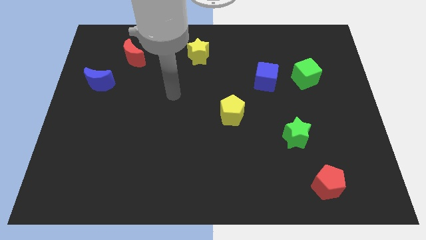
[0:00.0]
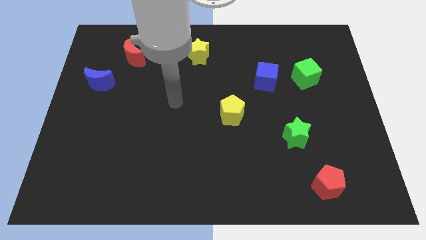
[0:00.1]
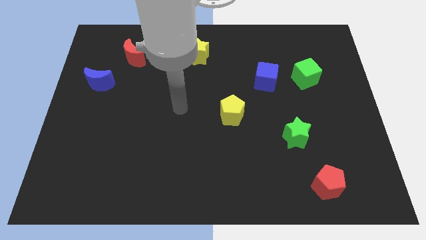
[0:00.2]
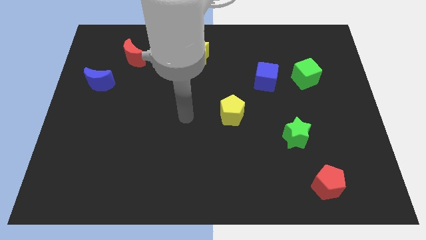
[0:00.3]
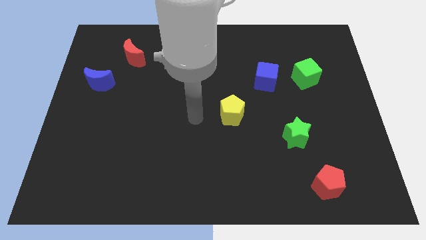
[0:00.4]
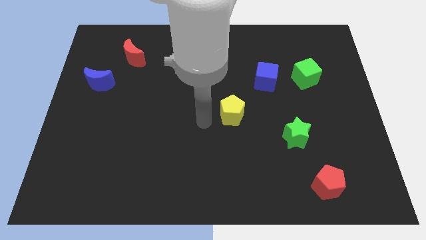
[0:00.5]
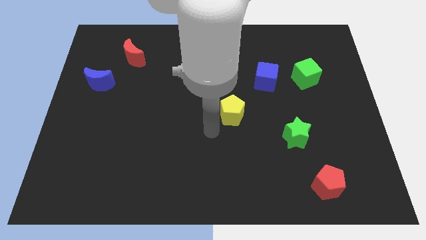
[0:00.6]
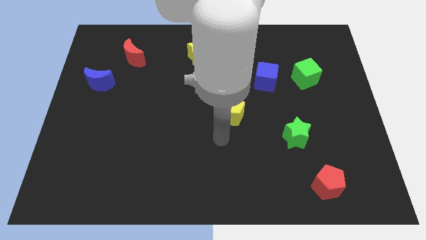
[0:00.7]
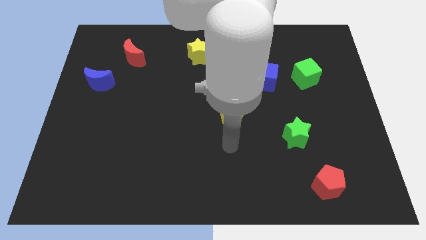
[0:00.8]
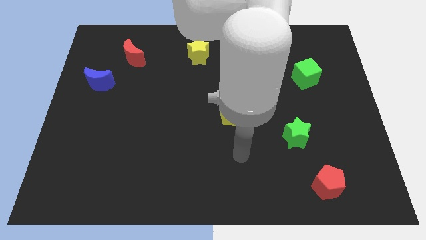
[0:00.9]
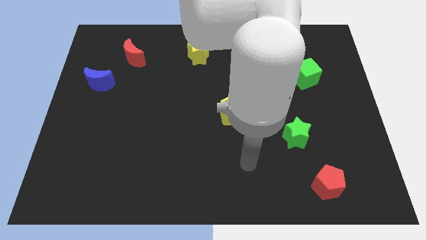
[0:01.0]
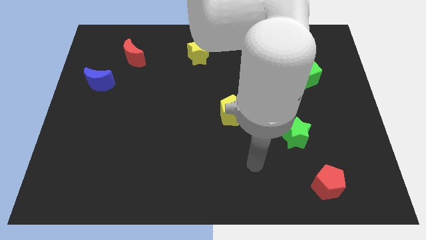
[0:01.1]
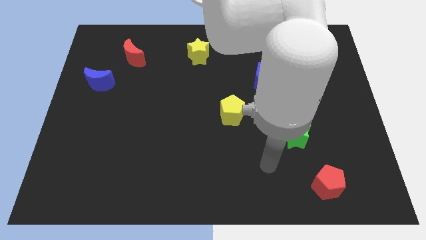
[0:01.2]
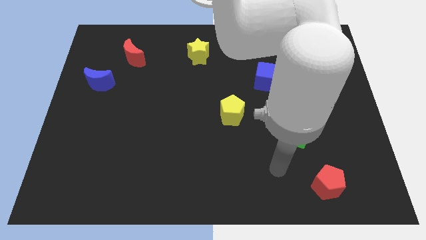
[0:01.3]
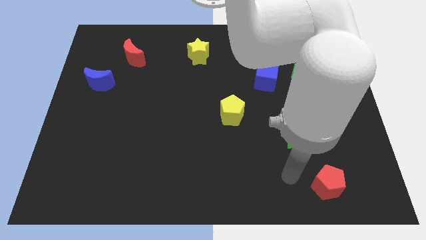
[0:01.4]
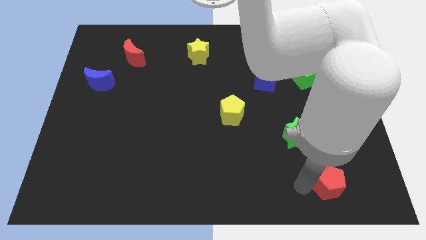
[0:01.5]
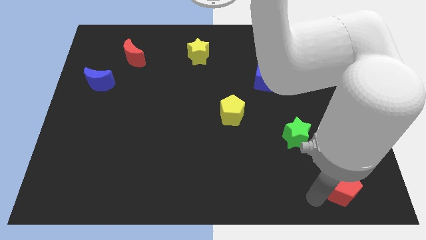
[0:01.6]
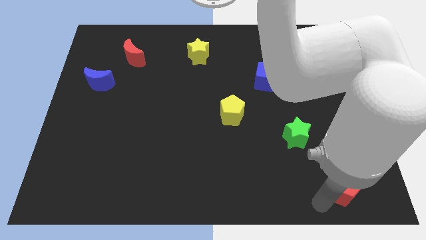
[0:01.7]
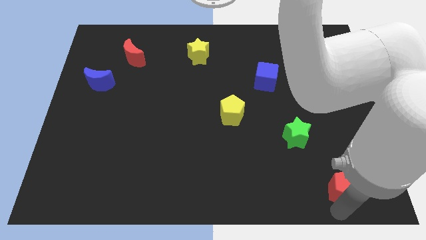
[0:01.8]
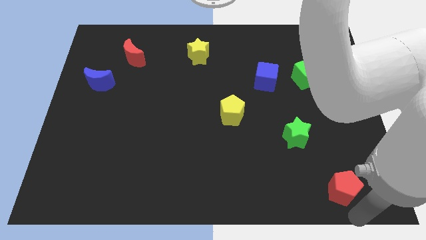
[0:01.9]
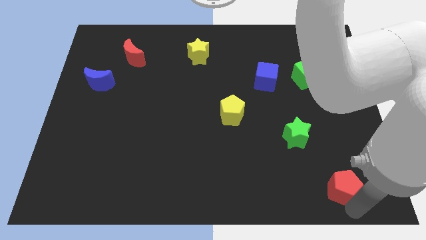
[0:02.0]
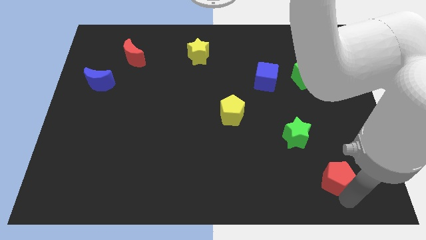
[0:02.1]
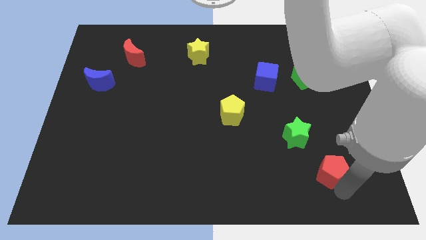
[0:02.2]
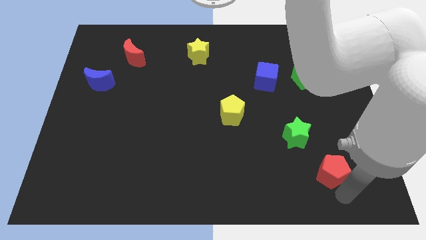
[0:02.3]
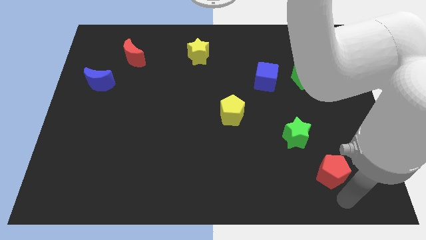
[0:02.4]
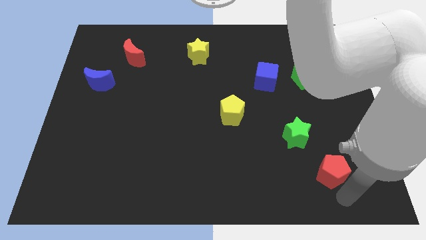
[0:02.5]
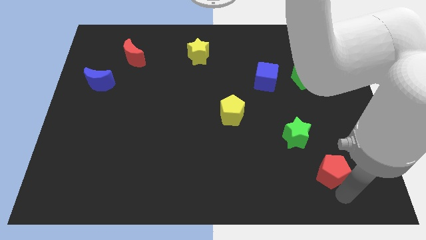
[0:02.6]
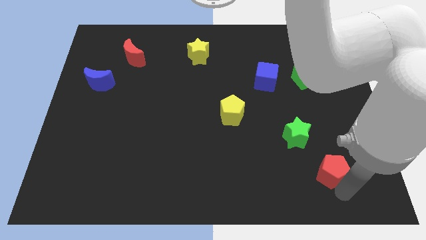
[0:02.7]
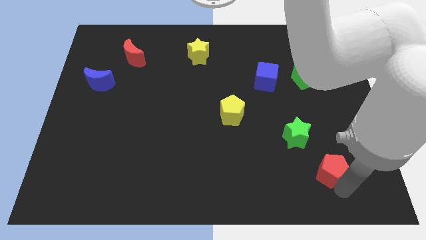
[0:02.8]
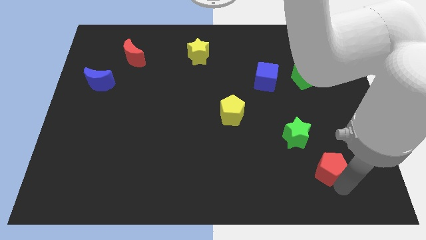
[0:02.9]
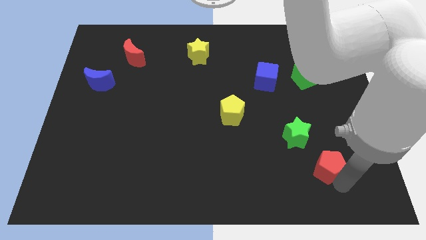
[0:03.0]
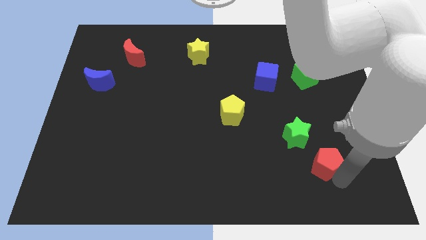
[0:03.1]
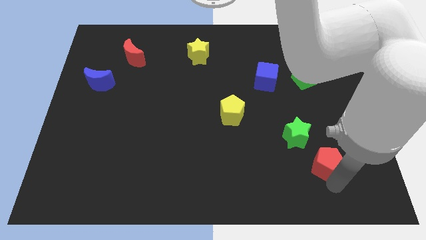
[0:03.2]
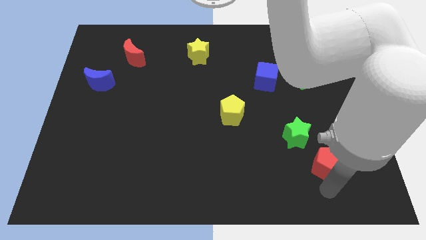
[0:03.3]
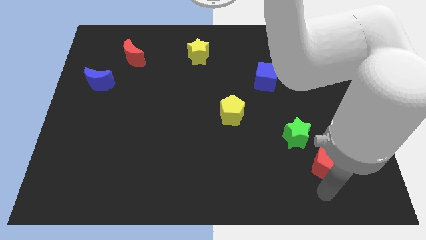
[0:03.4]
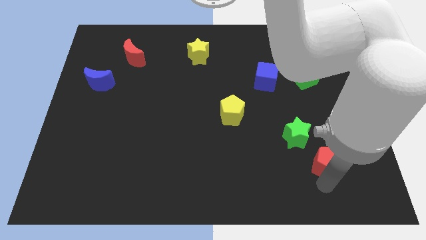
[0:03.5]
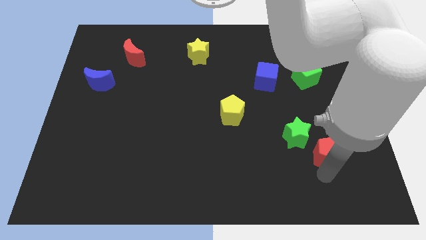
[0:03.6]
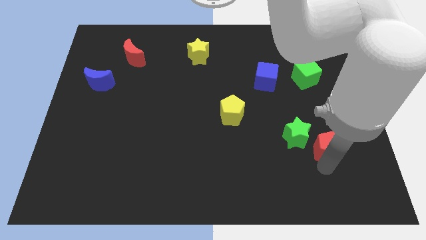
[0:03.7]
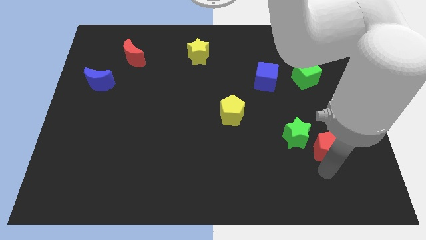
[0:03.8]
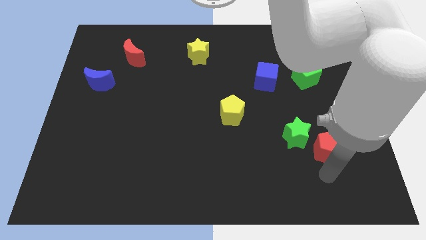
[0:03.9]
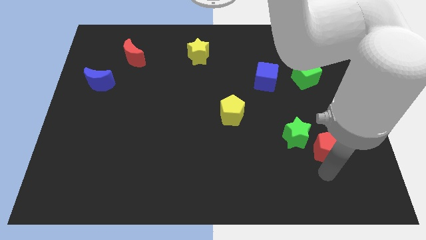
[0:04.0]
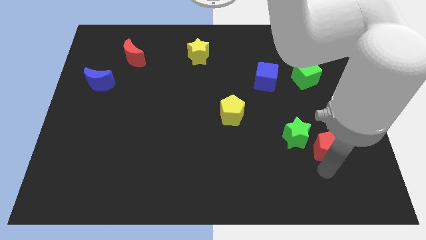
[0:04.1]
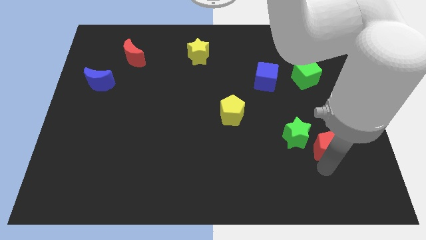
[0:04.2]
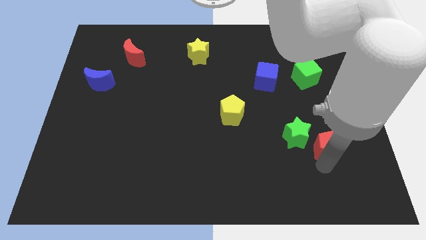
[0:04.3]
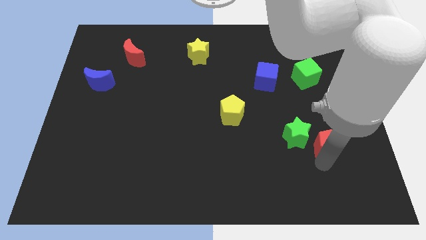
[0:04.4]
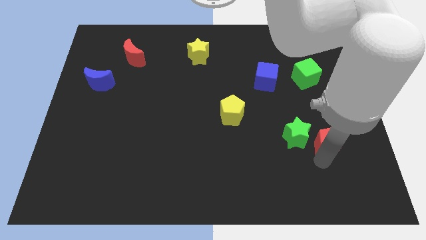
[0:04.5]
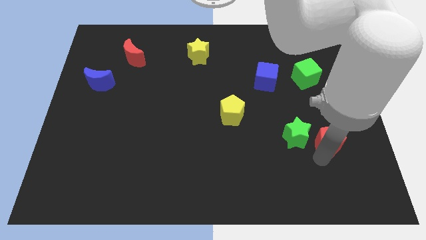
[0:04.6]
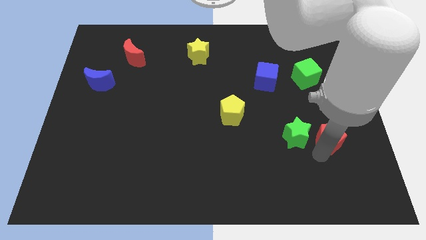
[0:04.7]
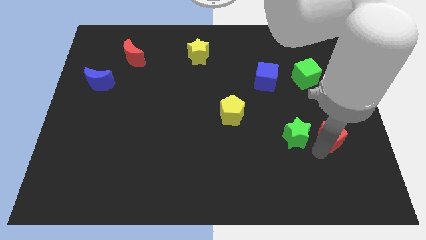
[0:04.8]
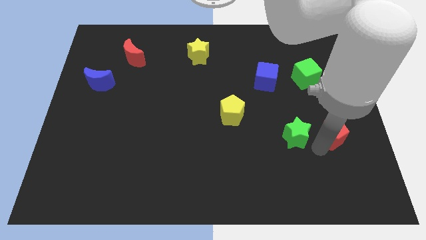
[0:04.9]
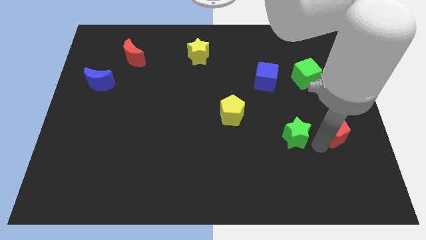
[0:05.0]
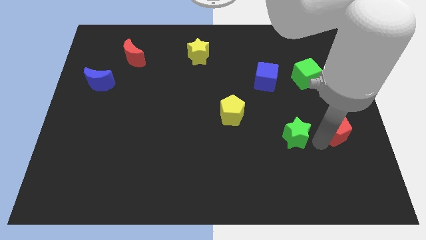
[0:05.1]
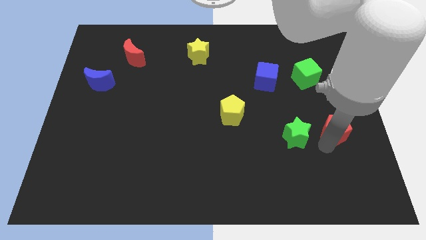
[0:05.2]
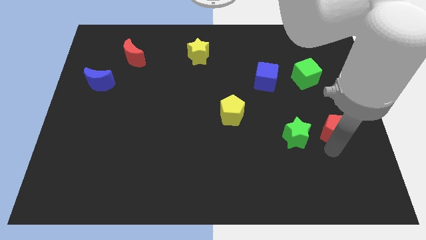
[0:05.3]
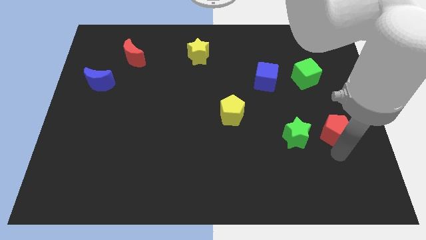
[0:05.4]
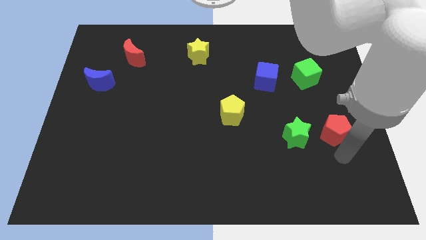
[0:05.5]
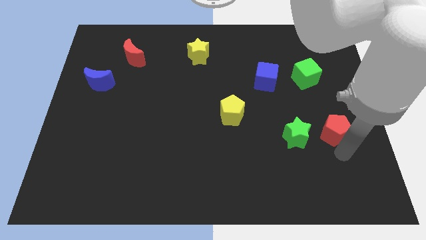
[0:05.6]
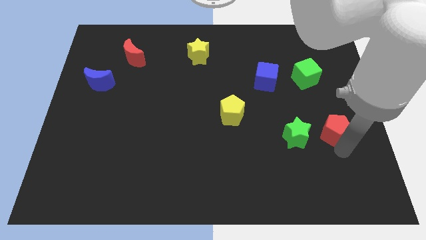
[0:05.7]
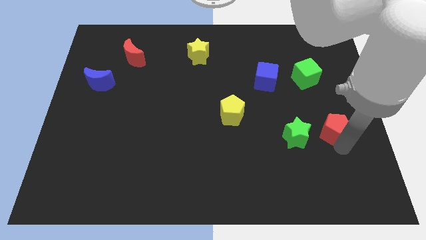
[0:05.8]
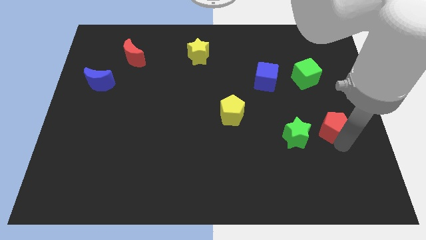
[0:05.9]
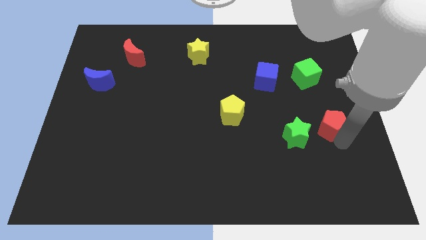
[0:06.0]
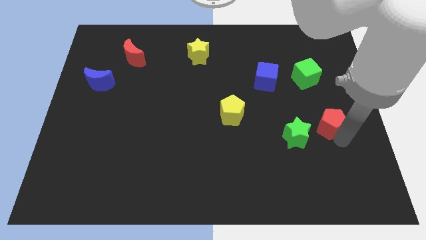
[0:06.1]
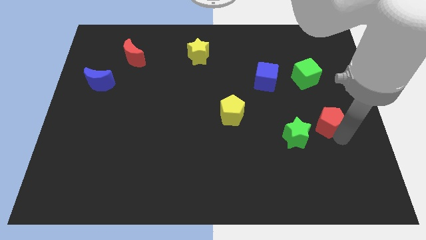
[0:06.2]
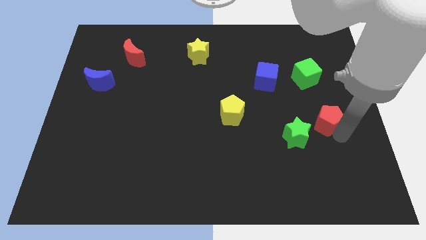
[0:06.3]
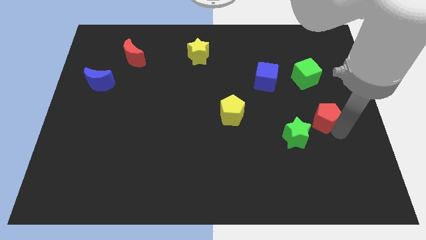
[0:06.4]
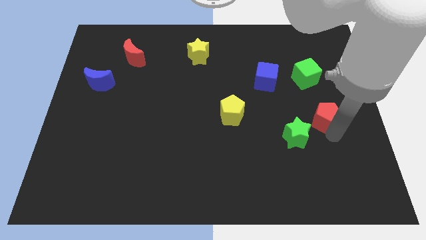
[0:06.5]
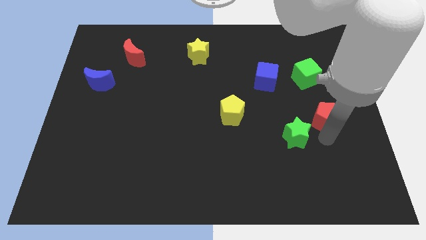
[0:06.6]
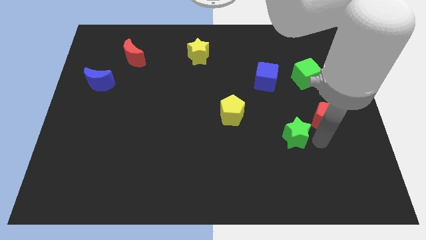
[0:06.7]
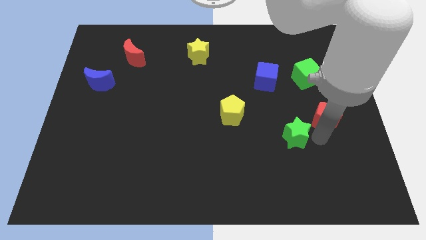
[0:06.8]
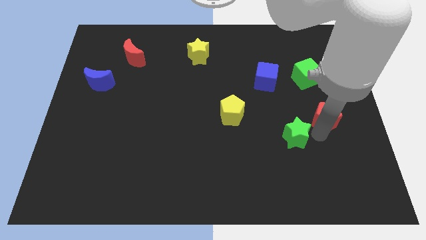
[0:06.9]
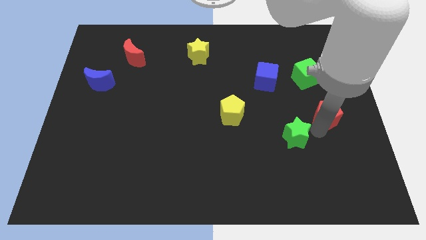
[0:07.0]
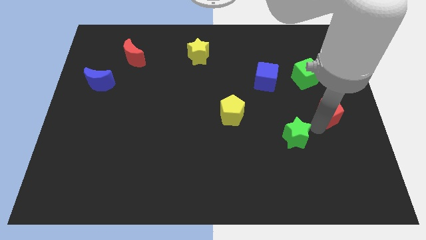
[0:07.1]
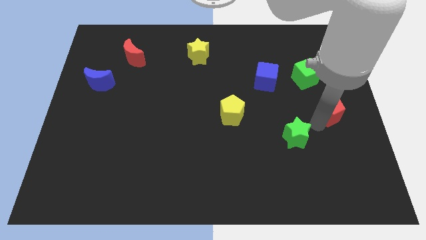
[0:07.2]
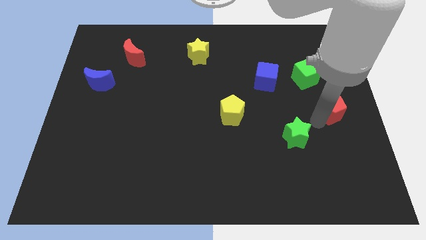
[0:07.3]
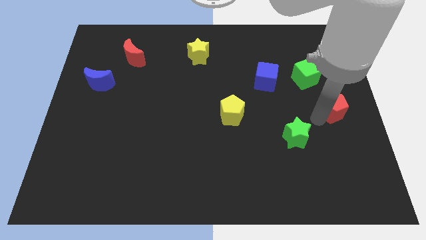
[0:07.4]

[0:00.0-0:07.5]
move the red pentagon to the bottom right side of the green cube
